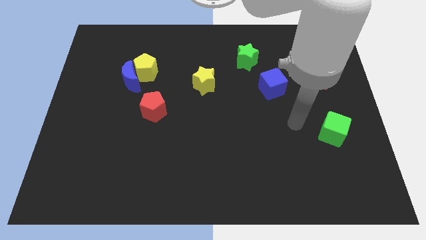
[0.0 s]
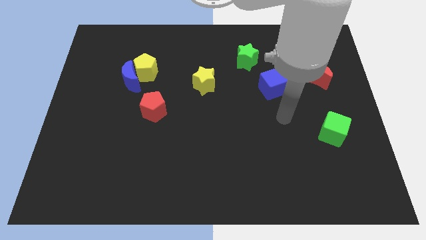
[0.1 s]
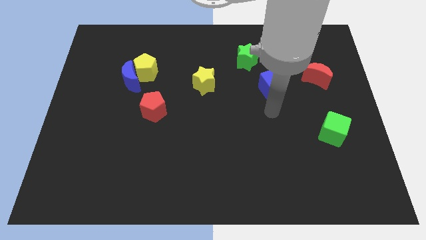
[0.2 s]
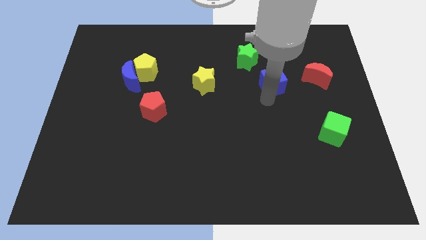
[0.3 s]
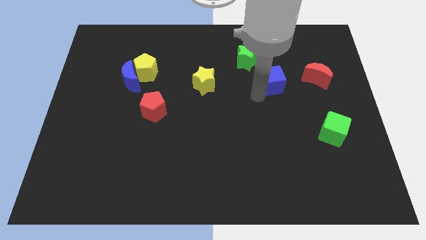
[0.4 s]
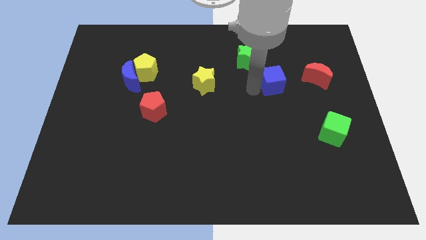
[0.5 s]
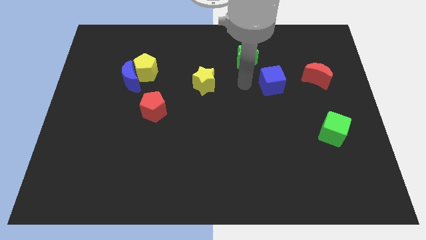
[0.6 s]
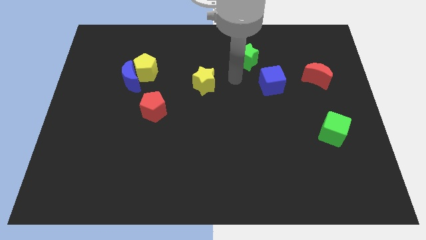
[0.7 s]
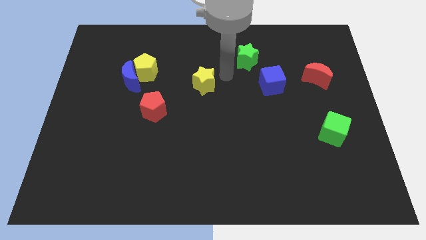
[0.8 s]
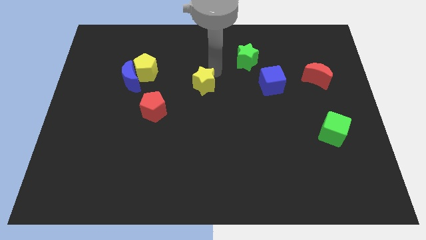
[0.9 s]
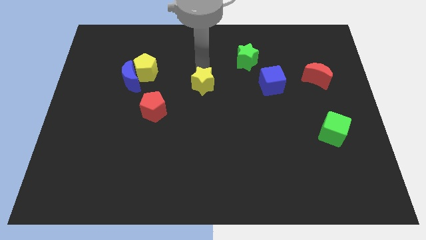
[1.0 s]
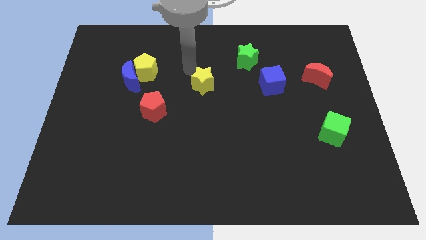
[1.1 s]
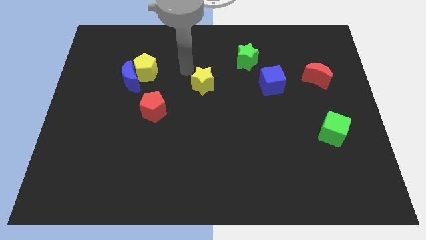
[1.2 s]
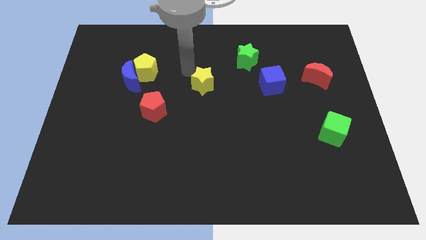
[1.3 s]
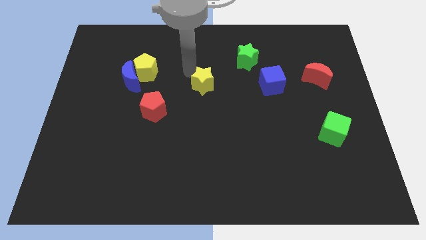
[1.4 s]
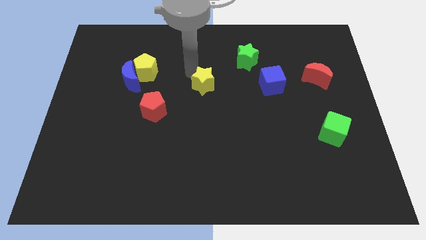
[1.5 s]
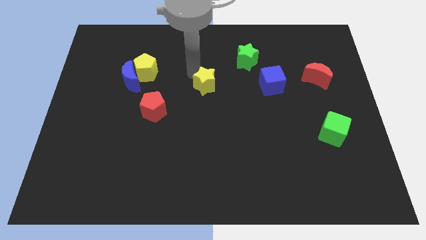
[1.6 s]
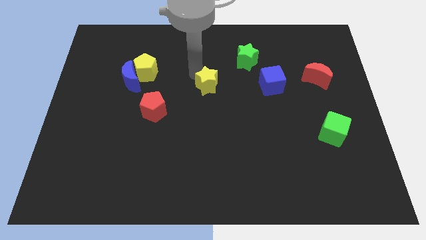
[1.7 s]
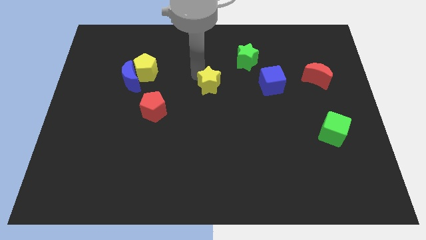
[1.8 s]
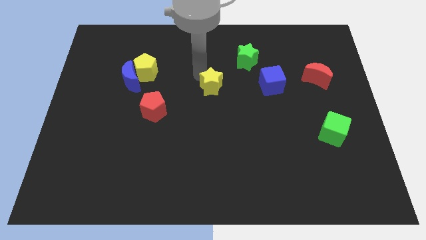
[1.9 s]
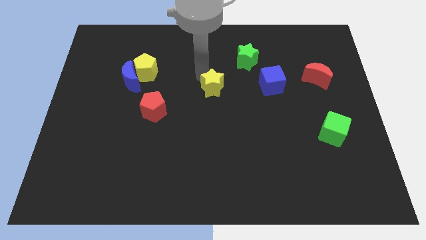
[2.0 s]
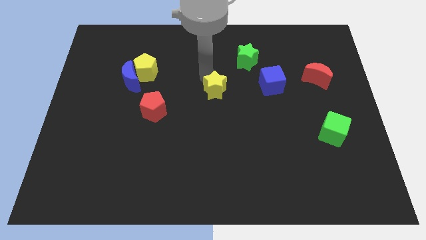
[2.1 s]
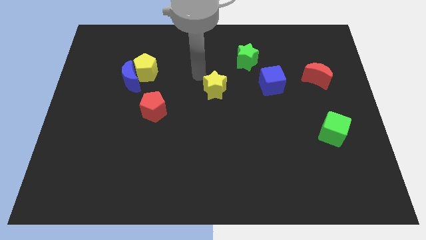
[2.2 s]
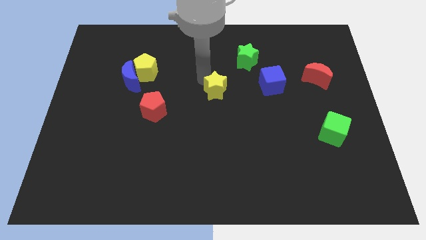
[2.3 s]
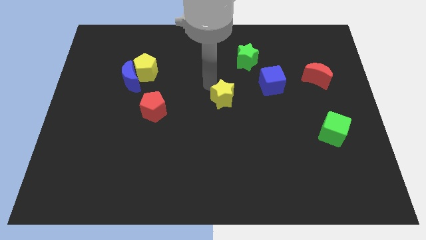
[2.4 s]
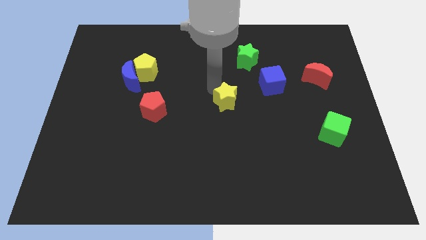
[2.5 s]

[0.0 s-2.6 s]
push the yellow star a little down and right diagonally

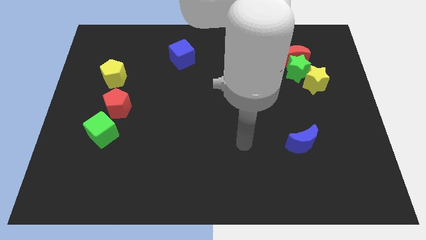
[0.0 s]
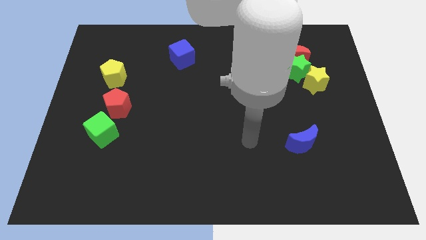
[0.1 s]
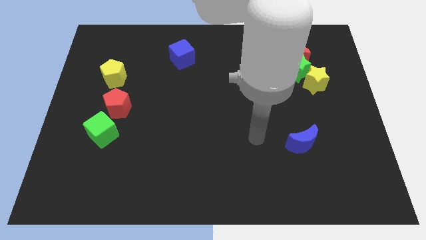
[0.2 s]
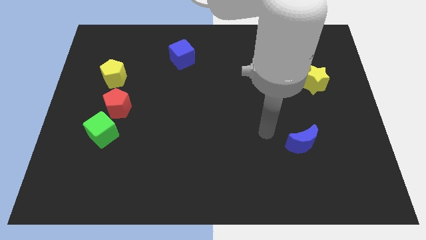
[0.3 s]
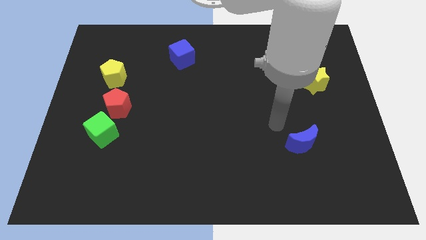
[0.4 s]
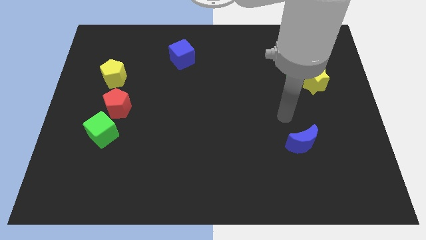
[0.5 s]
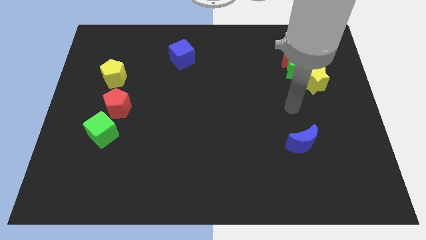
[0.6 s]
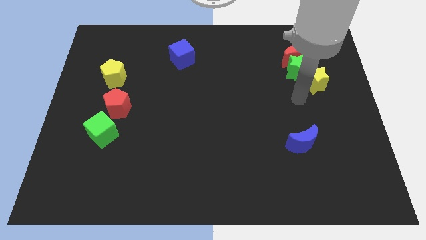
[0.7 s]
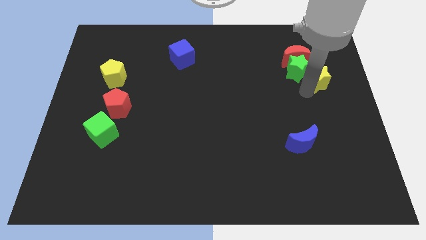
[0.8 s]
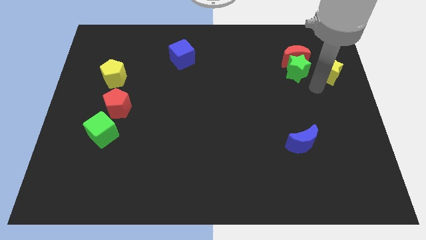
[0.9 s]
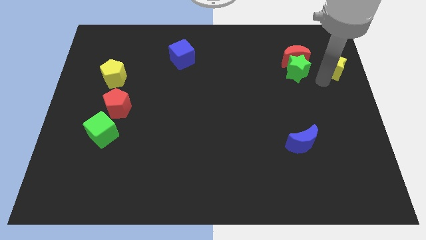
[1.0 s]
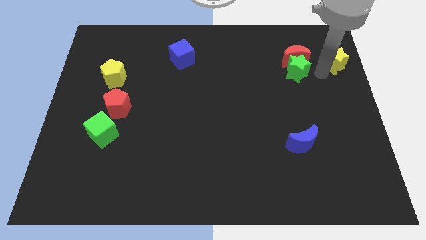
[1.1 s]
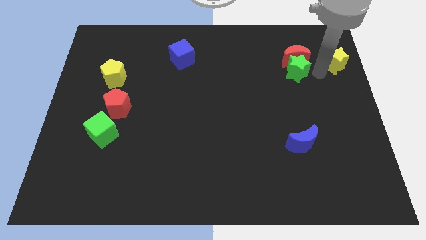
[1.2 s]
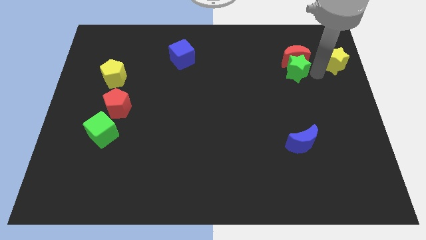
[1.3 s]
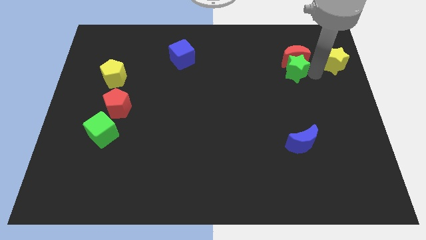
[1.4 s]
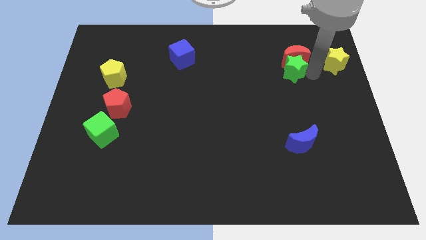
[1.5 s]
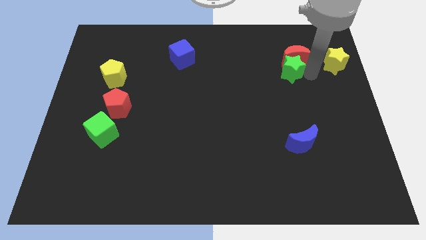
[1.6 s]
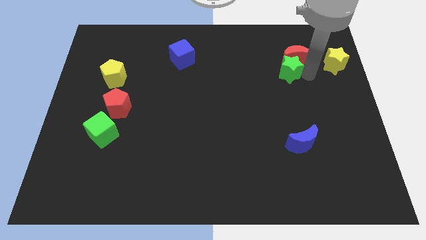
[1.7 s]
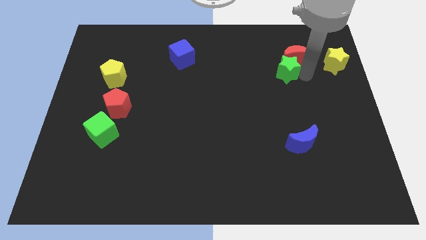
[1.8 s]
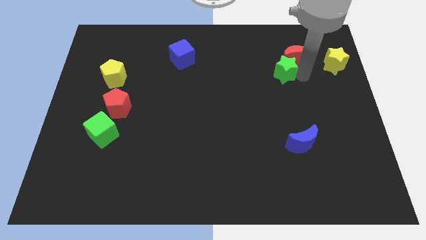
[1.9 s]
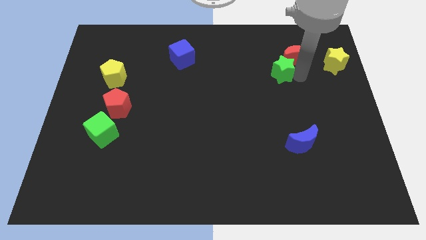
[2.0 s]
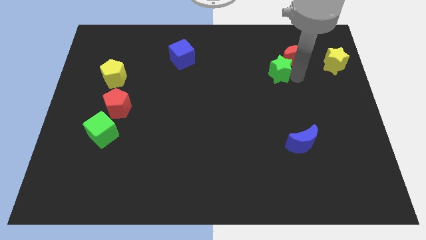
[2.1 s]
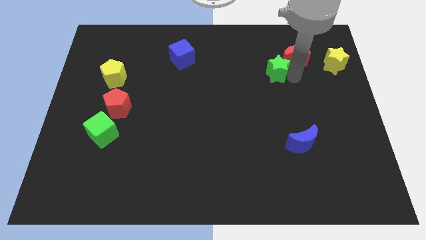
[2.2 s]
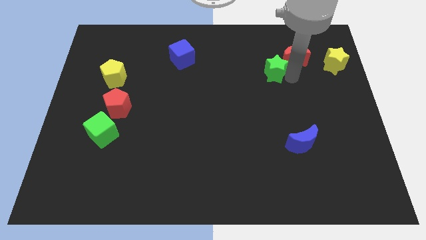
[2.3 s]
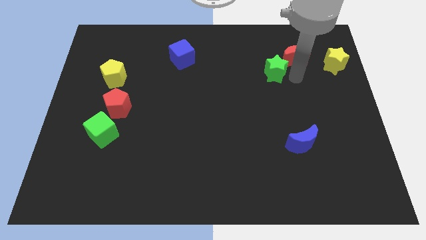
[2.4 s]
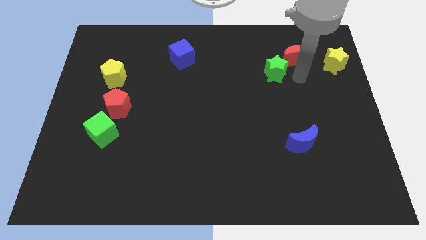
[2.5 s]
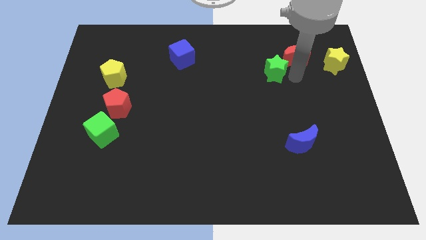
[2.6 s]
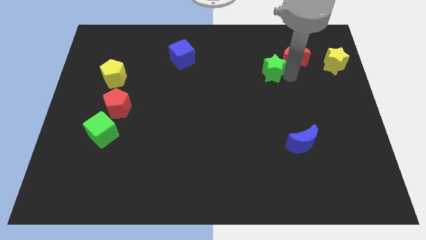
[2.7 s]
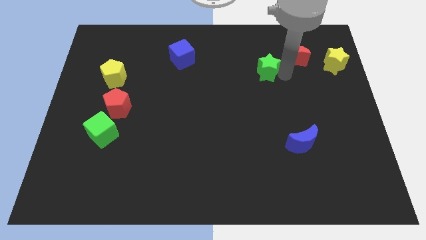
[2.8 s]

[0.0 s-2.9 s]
slightly push the green star left

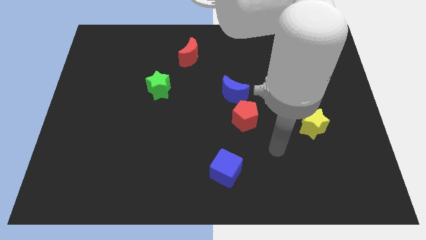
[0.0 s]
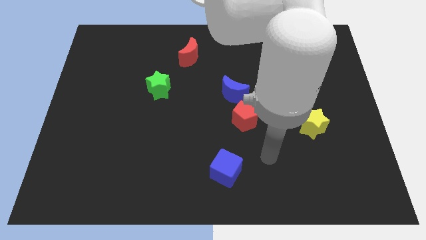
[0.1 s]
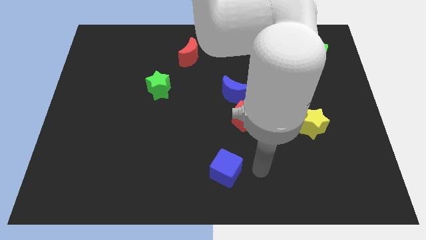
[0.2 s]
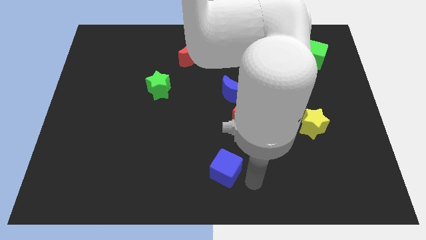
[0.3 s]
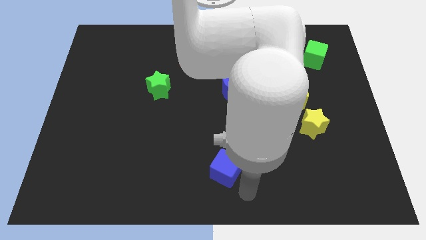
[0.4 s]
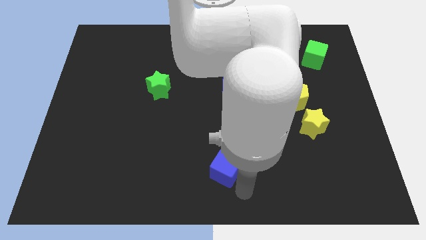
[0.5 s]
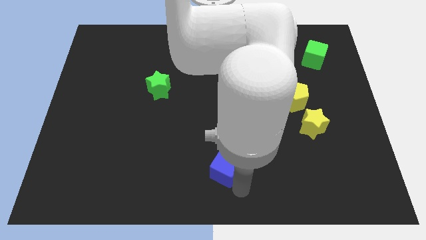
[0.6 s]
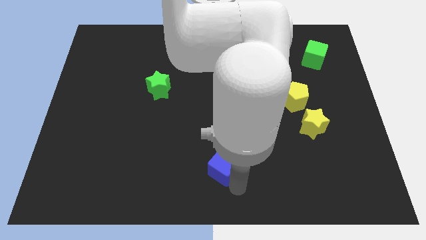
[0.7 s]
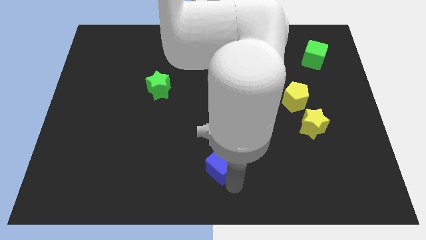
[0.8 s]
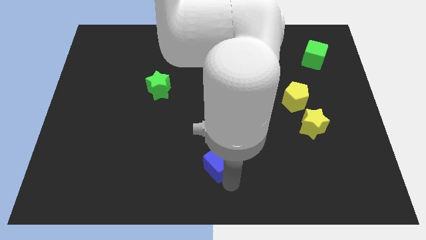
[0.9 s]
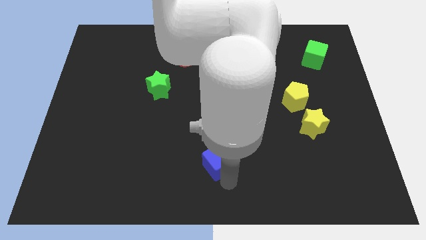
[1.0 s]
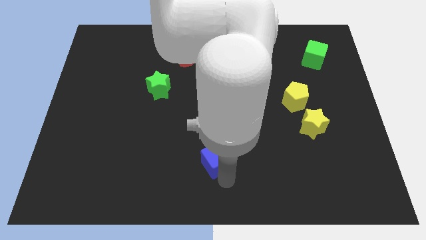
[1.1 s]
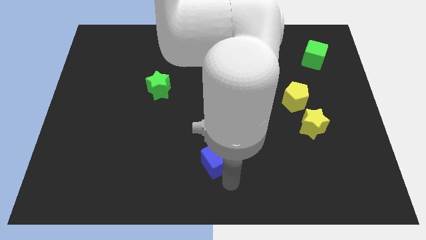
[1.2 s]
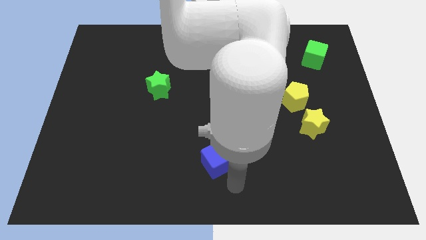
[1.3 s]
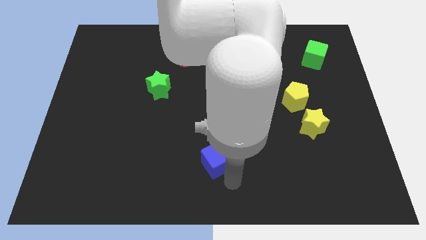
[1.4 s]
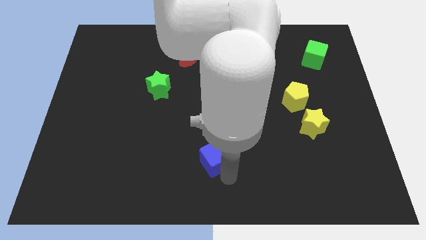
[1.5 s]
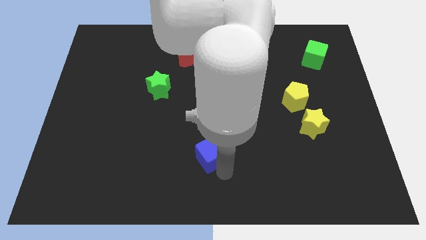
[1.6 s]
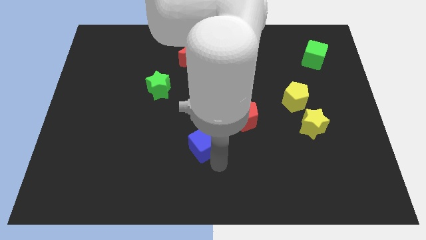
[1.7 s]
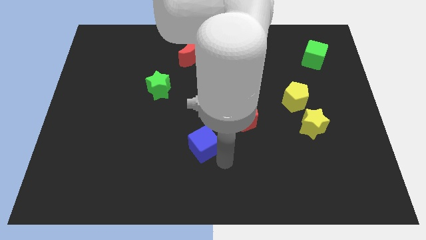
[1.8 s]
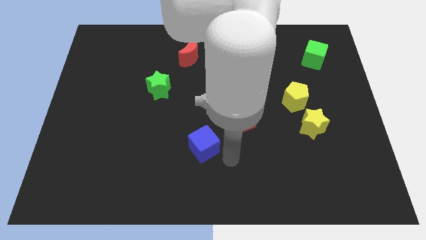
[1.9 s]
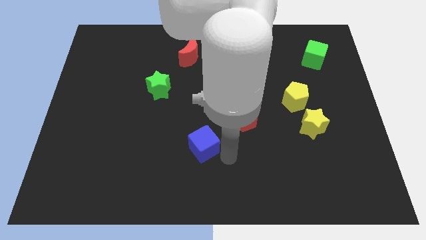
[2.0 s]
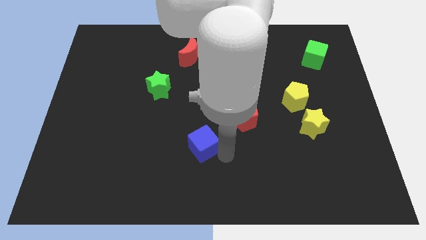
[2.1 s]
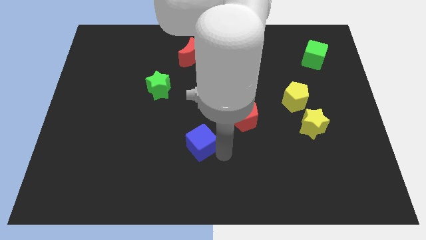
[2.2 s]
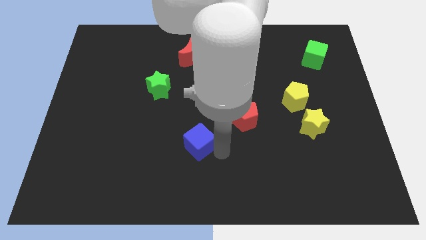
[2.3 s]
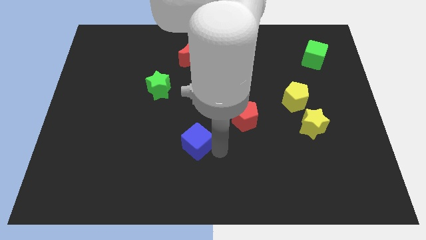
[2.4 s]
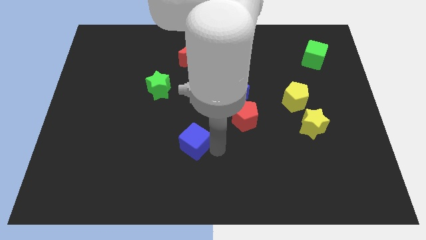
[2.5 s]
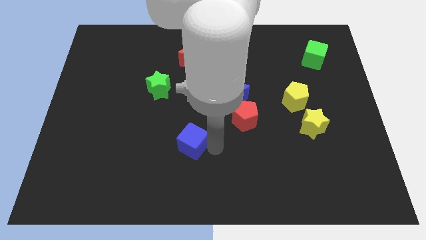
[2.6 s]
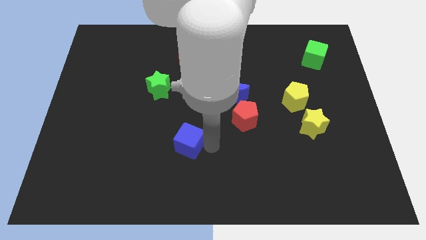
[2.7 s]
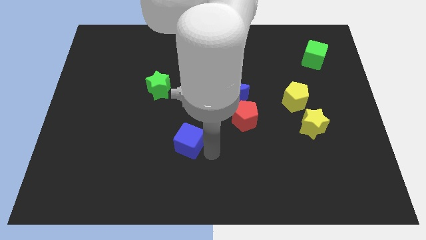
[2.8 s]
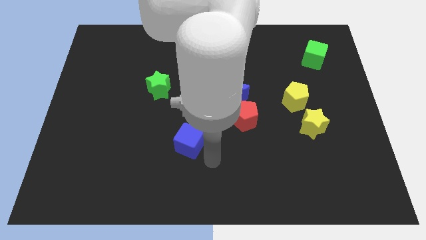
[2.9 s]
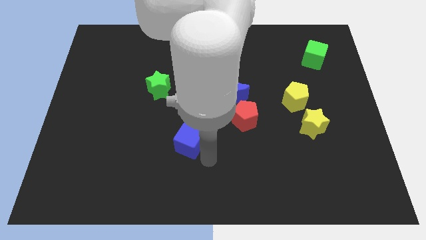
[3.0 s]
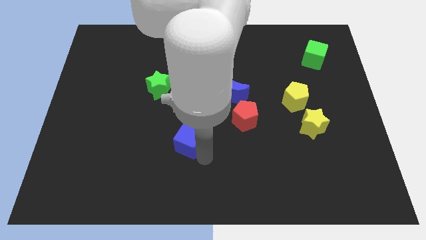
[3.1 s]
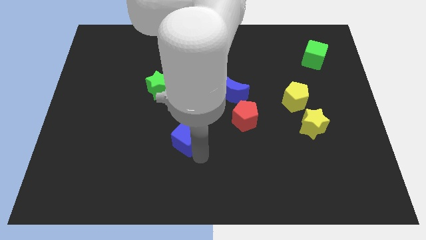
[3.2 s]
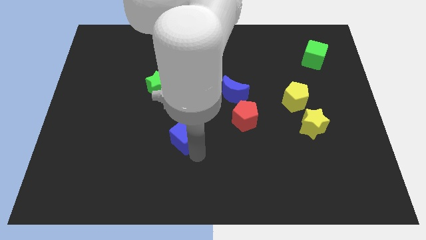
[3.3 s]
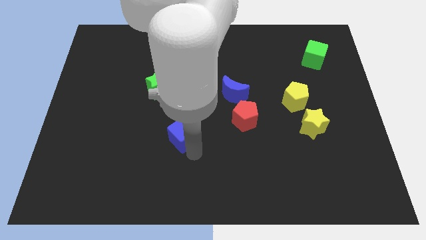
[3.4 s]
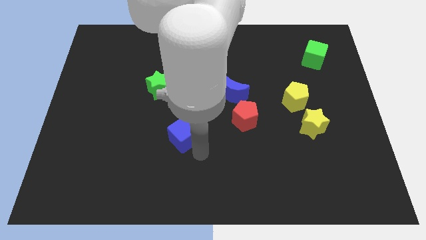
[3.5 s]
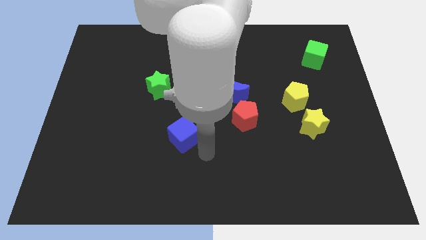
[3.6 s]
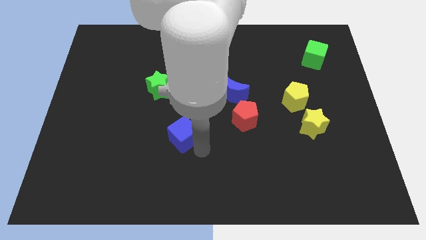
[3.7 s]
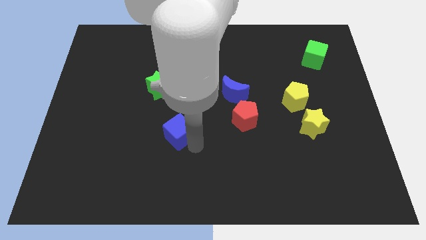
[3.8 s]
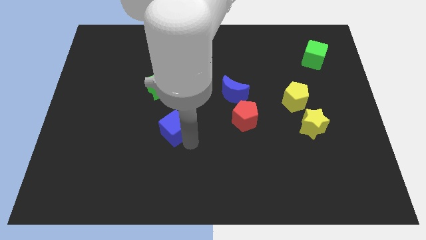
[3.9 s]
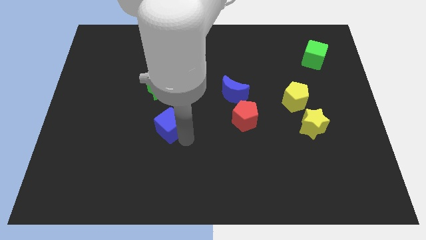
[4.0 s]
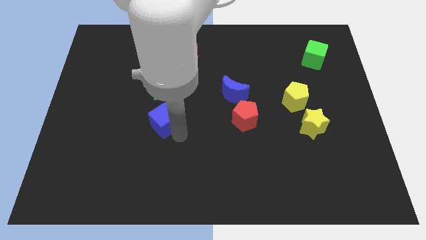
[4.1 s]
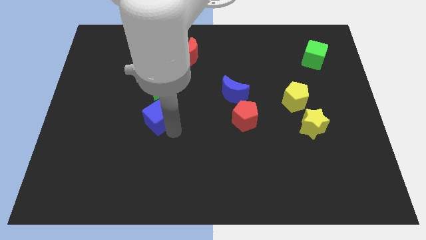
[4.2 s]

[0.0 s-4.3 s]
move the blue cube diagonally up and to the left
